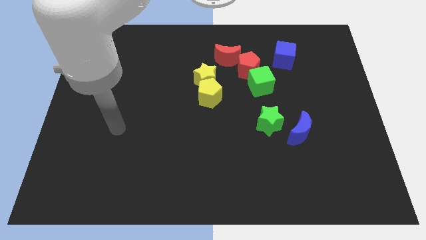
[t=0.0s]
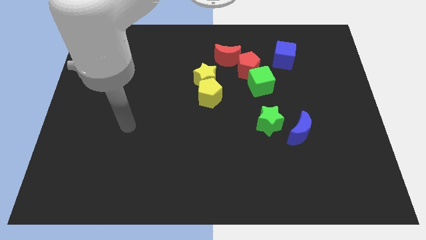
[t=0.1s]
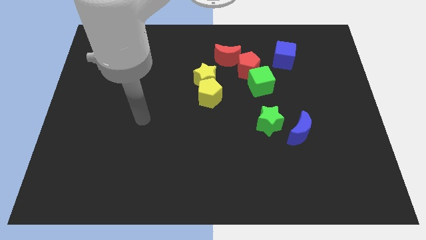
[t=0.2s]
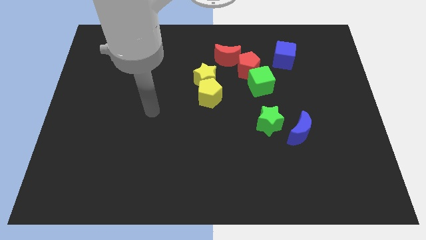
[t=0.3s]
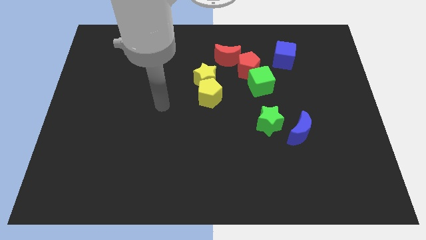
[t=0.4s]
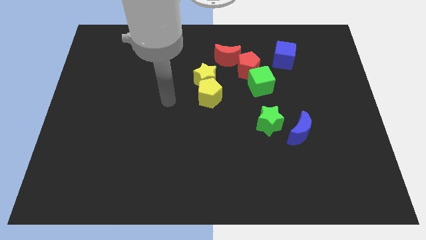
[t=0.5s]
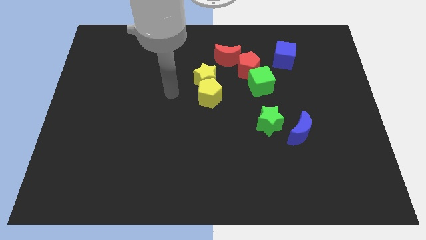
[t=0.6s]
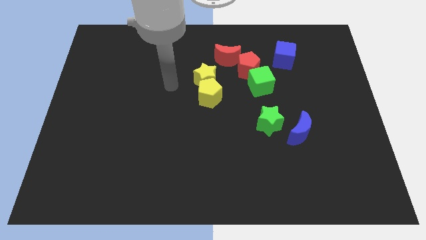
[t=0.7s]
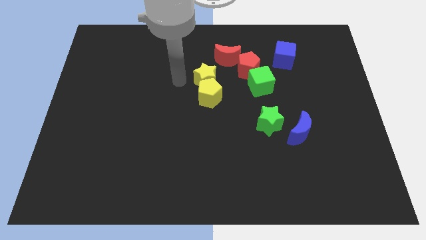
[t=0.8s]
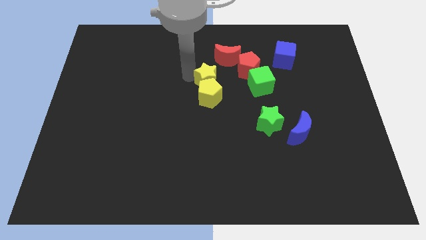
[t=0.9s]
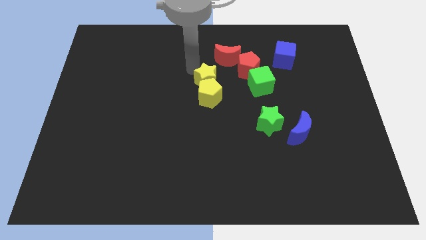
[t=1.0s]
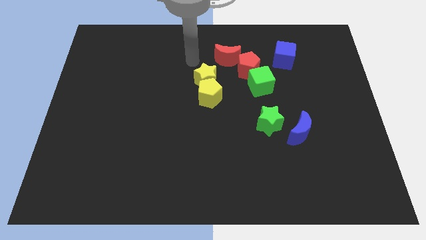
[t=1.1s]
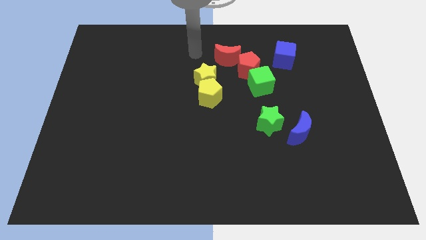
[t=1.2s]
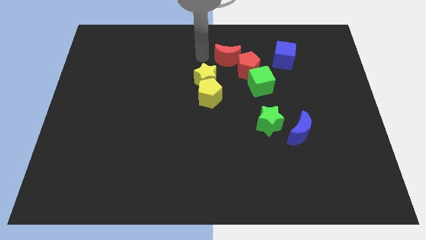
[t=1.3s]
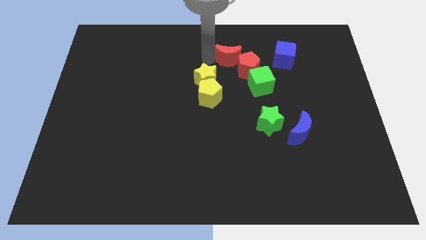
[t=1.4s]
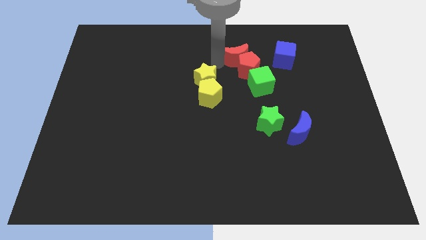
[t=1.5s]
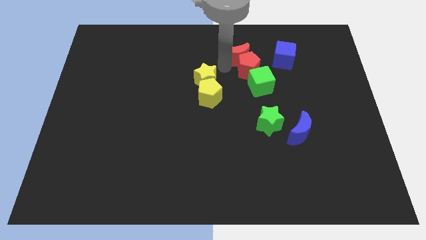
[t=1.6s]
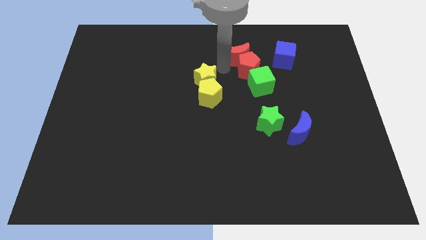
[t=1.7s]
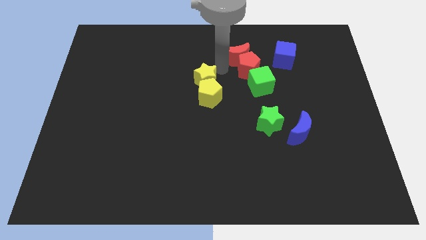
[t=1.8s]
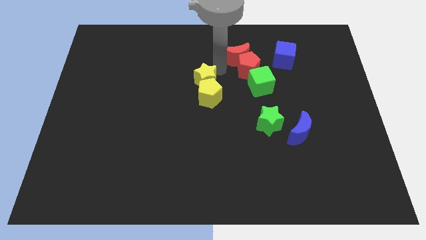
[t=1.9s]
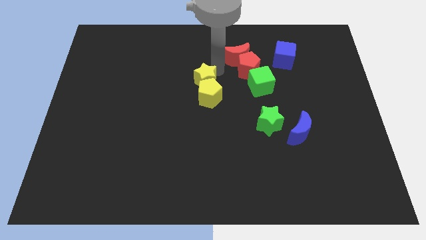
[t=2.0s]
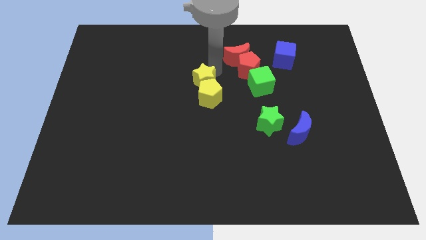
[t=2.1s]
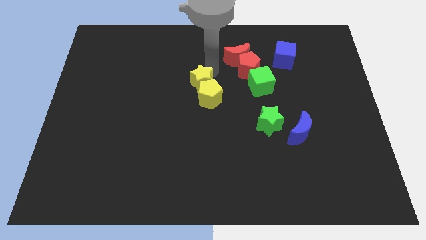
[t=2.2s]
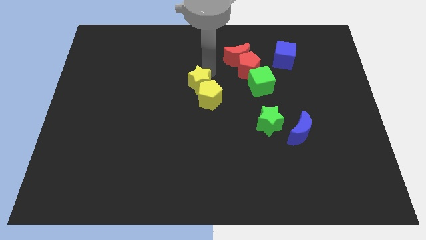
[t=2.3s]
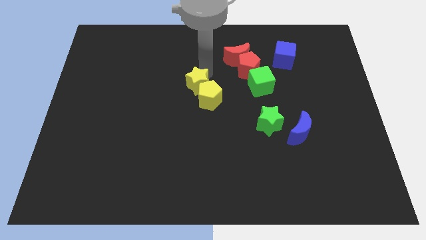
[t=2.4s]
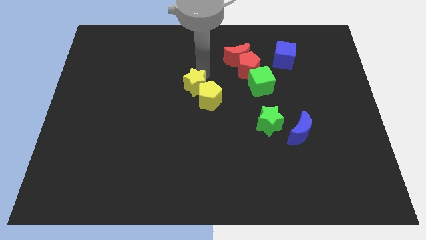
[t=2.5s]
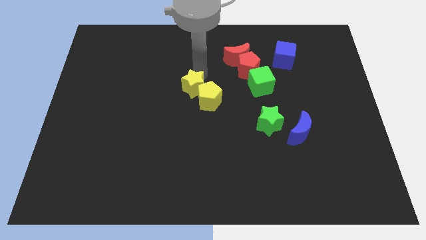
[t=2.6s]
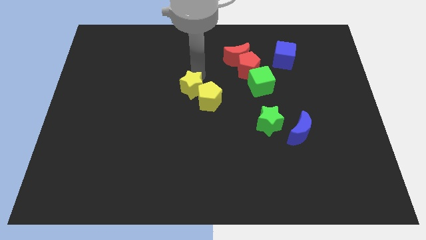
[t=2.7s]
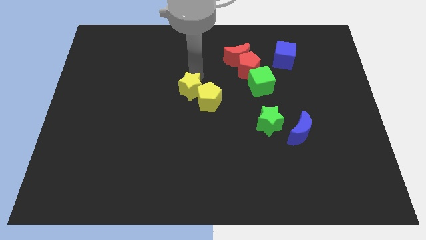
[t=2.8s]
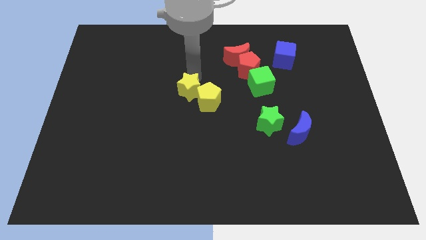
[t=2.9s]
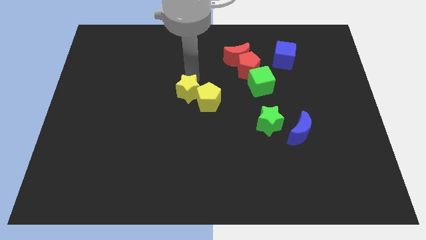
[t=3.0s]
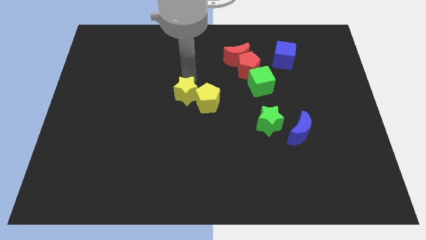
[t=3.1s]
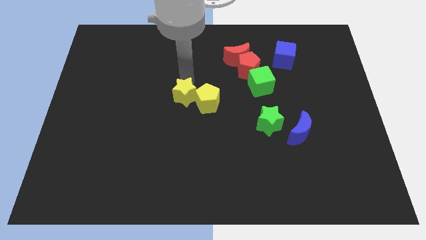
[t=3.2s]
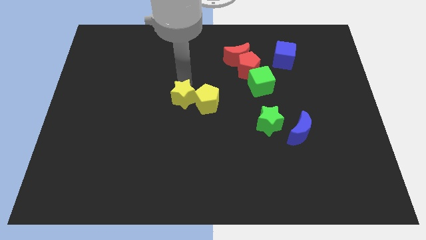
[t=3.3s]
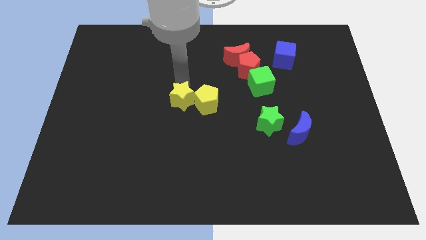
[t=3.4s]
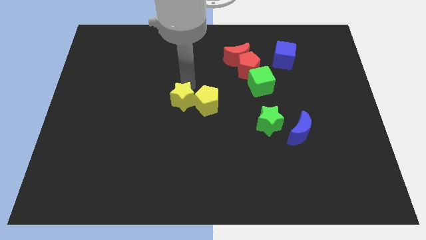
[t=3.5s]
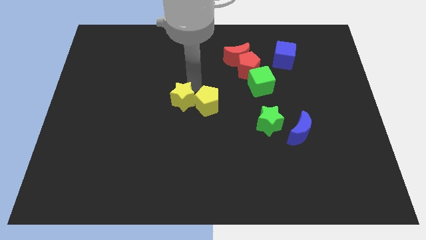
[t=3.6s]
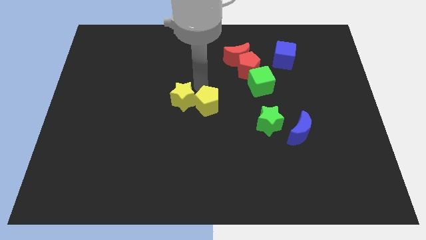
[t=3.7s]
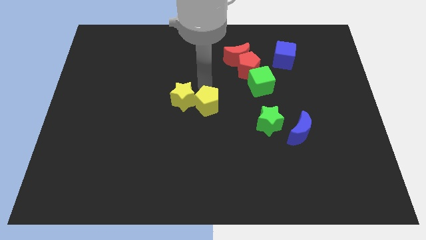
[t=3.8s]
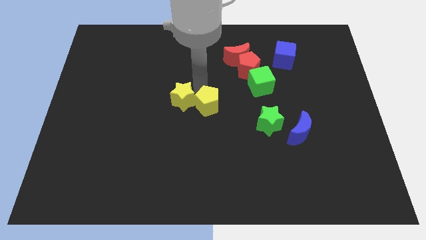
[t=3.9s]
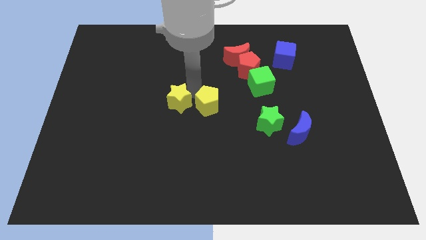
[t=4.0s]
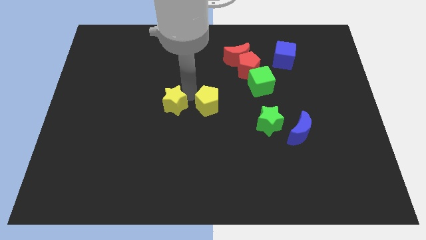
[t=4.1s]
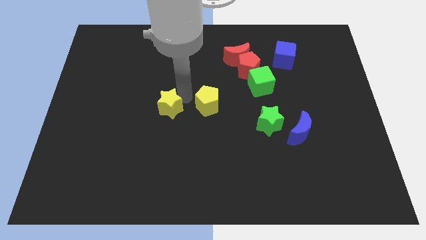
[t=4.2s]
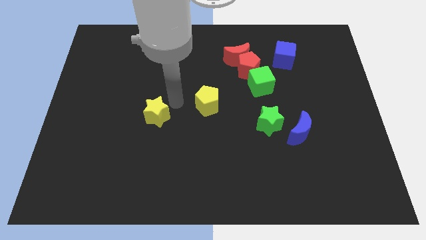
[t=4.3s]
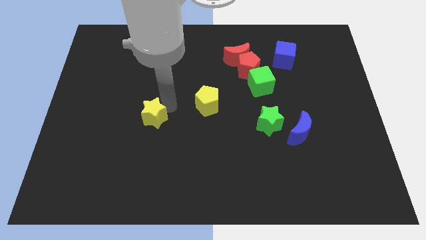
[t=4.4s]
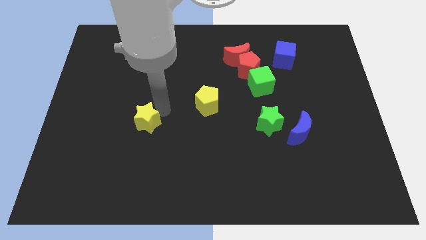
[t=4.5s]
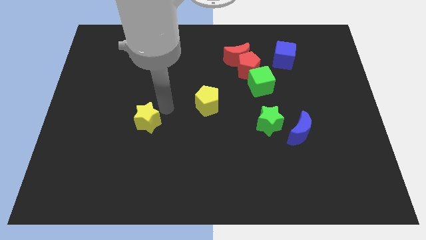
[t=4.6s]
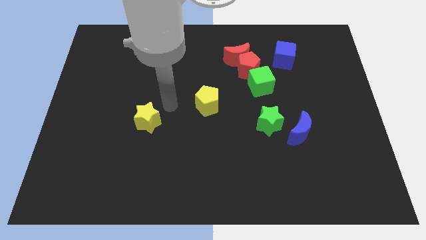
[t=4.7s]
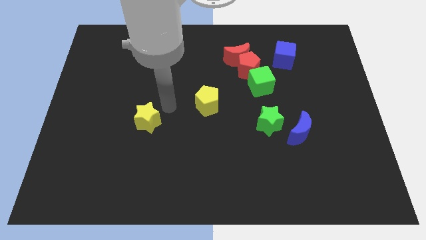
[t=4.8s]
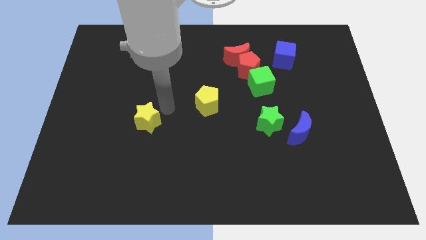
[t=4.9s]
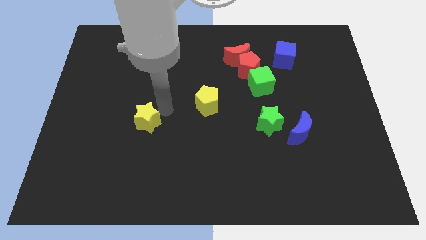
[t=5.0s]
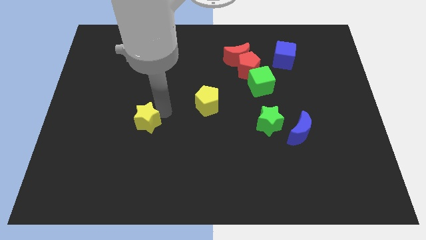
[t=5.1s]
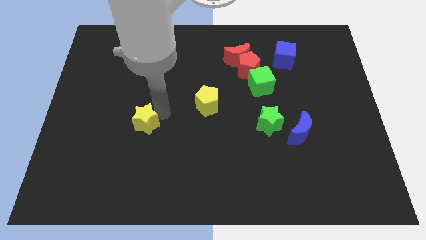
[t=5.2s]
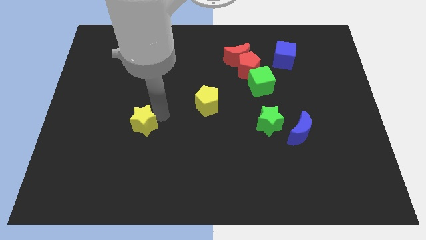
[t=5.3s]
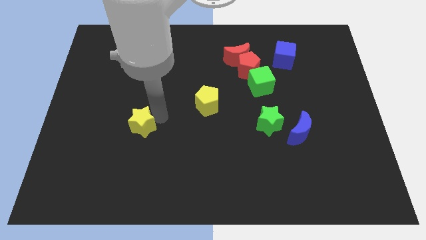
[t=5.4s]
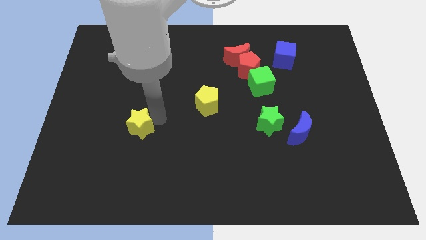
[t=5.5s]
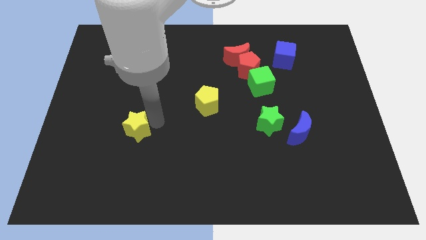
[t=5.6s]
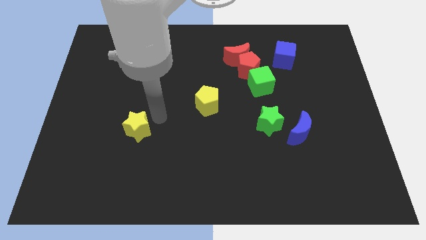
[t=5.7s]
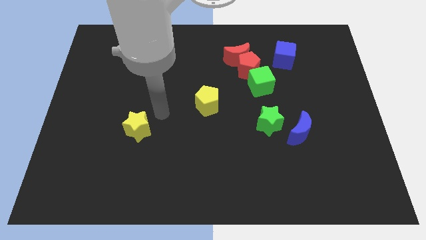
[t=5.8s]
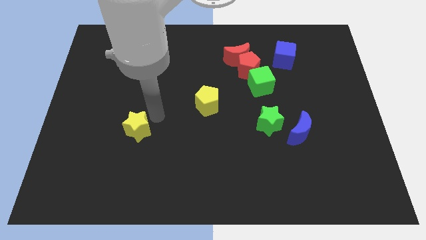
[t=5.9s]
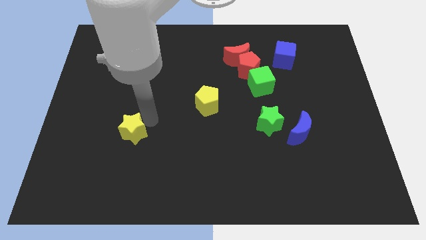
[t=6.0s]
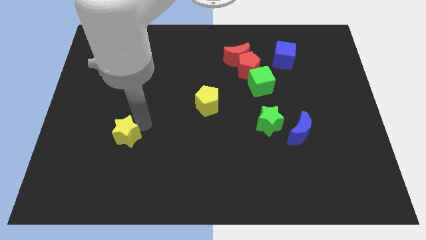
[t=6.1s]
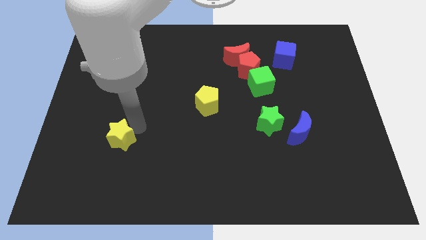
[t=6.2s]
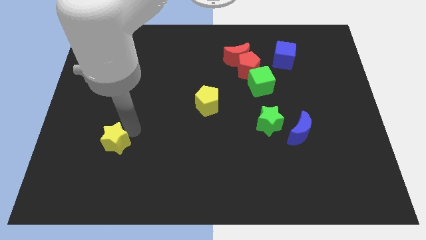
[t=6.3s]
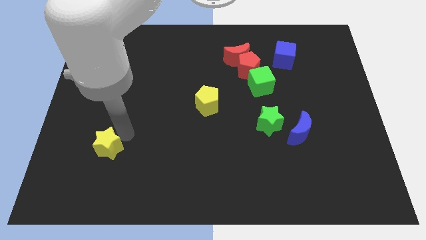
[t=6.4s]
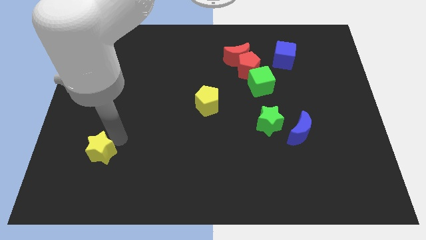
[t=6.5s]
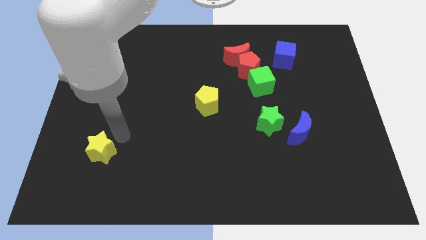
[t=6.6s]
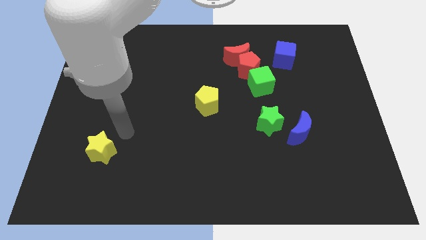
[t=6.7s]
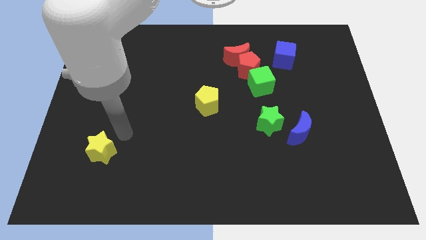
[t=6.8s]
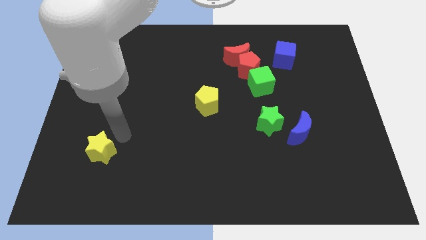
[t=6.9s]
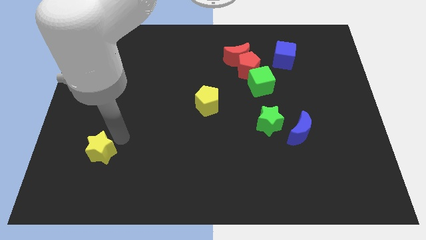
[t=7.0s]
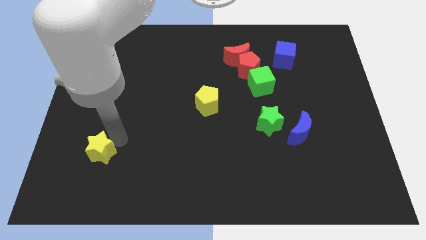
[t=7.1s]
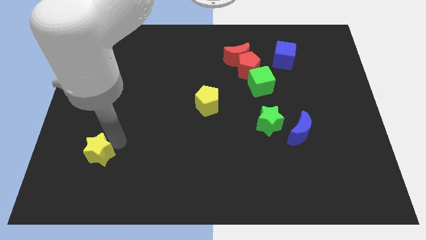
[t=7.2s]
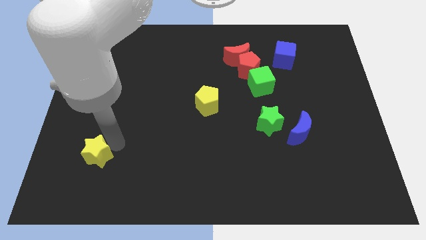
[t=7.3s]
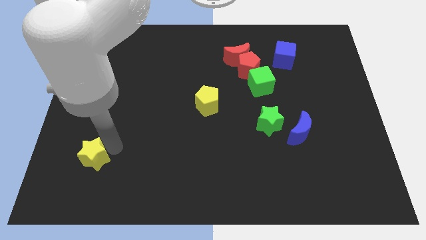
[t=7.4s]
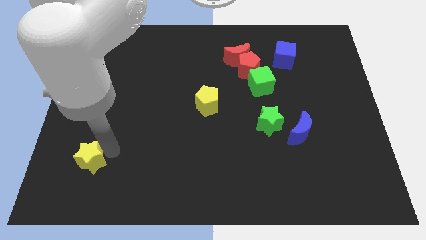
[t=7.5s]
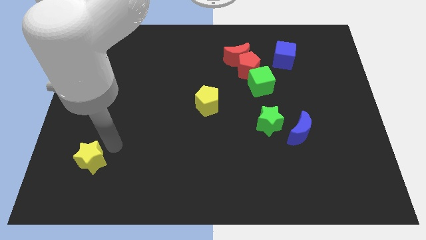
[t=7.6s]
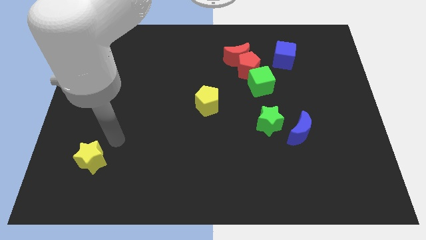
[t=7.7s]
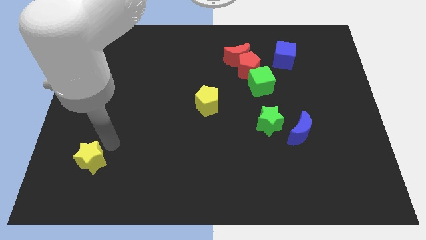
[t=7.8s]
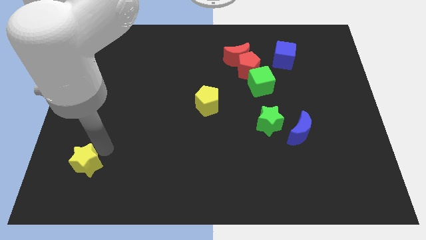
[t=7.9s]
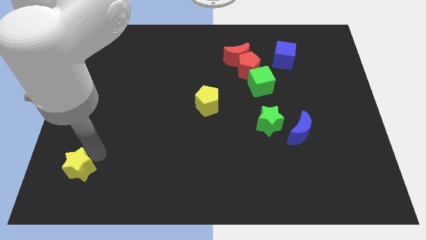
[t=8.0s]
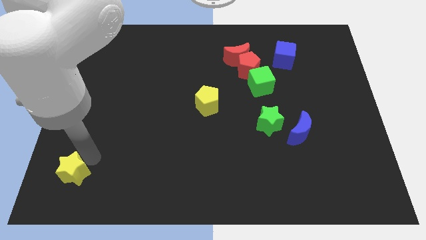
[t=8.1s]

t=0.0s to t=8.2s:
push the yellow star to the lower left corner
